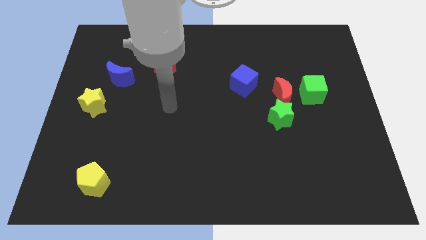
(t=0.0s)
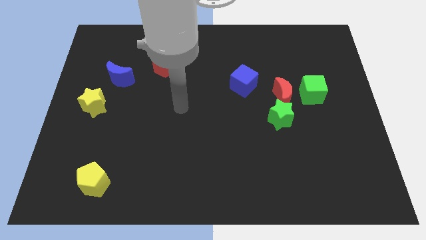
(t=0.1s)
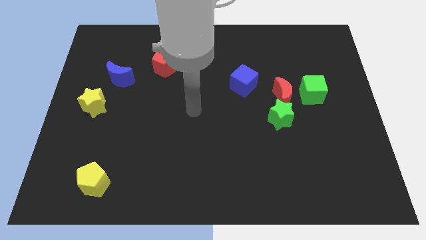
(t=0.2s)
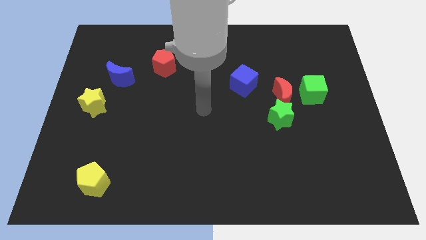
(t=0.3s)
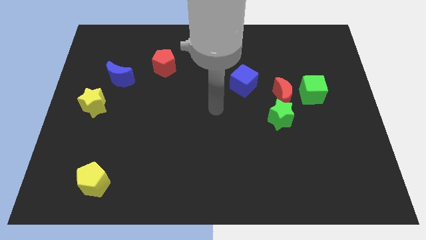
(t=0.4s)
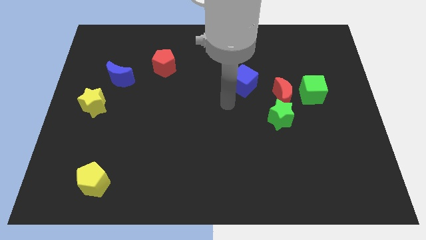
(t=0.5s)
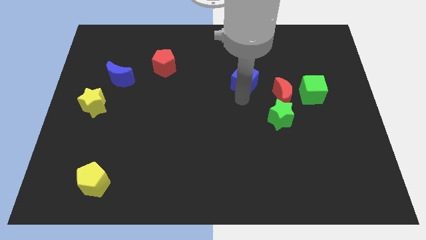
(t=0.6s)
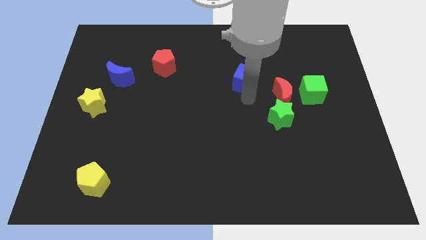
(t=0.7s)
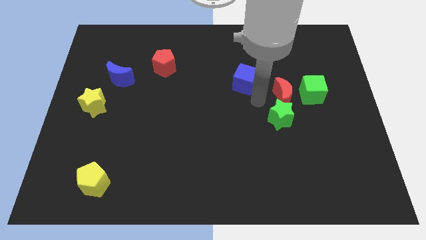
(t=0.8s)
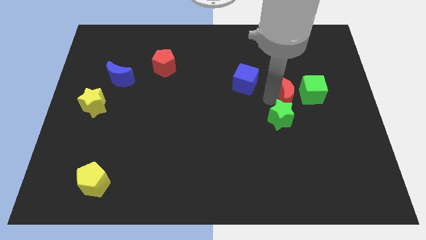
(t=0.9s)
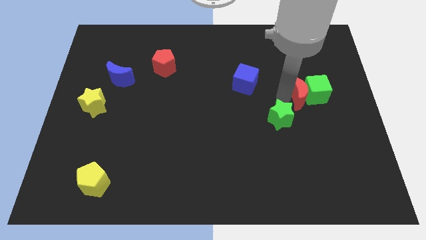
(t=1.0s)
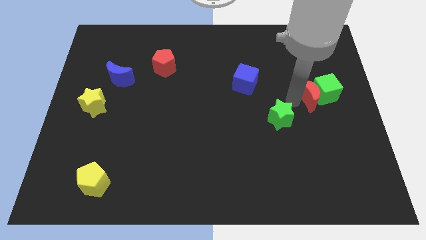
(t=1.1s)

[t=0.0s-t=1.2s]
separate the green star from the red moon

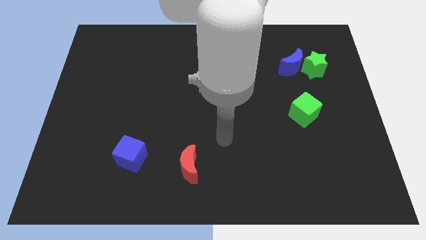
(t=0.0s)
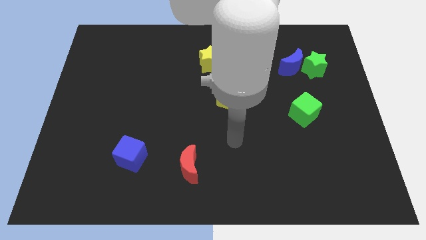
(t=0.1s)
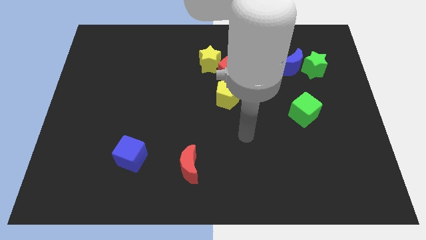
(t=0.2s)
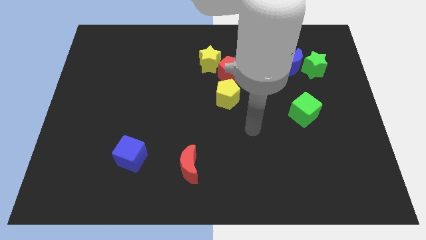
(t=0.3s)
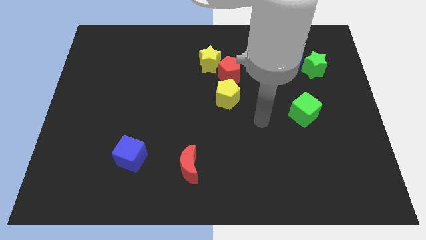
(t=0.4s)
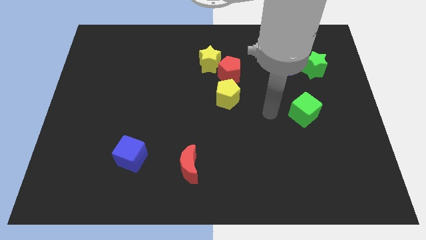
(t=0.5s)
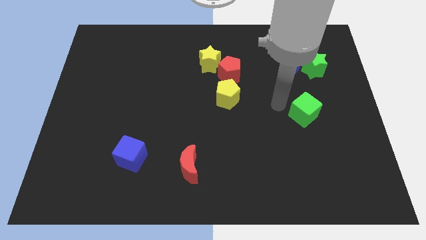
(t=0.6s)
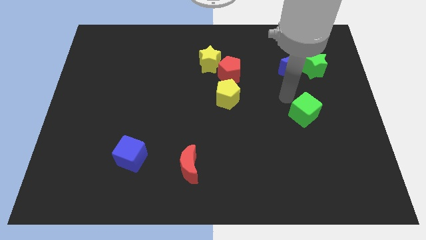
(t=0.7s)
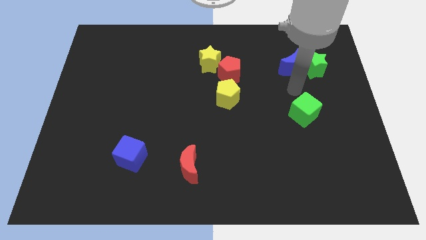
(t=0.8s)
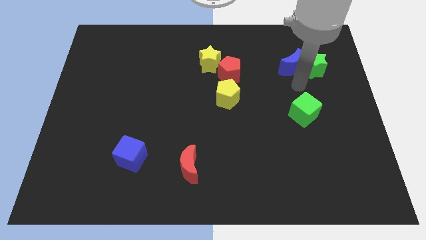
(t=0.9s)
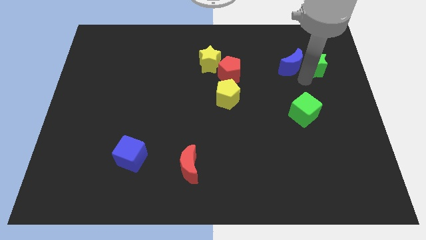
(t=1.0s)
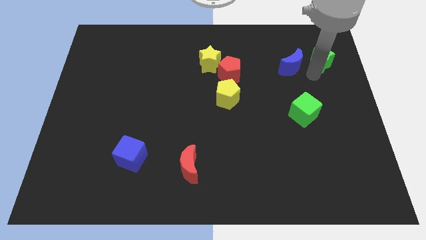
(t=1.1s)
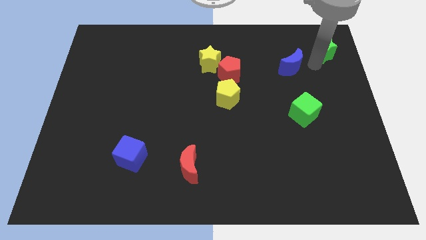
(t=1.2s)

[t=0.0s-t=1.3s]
separate the blue moon from the green star

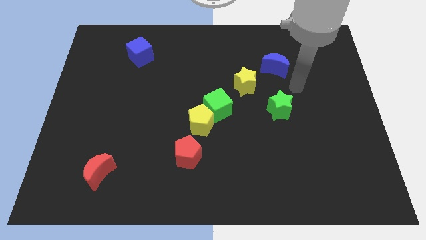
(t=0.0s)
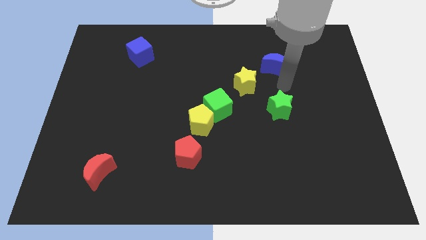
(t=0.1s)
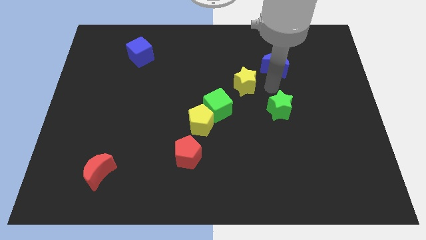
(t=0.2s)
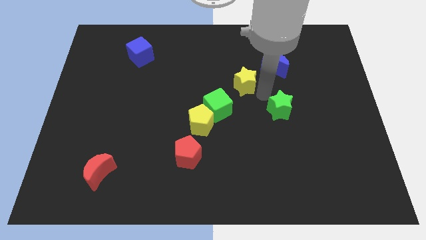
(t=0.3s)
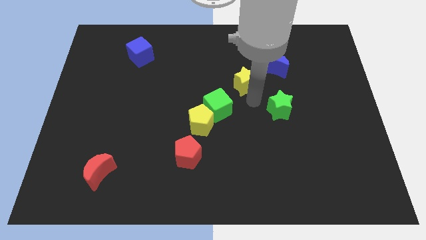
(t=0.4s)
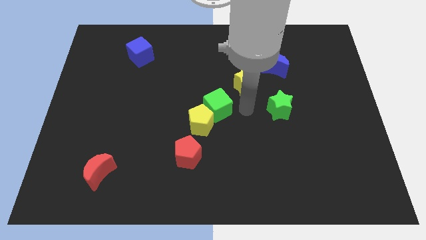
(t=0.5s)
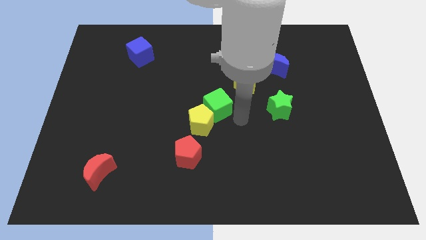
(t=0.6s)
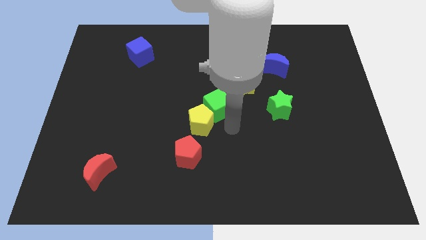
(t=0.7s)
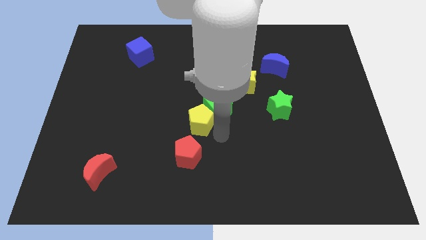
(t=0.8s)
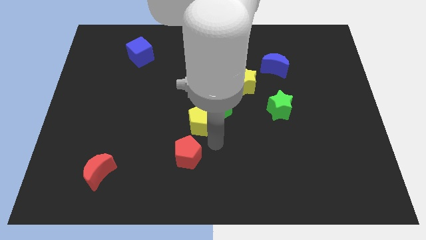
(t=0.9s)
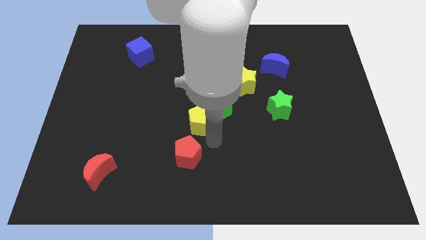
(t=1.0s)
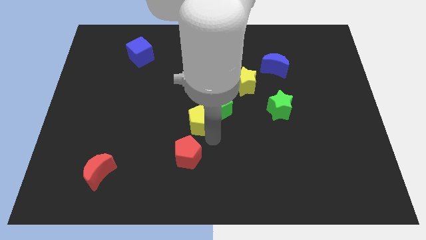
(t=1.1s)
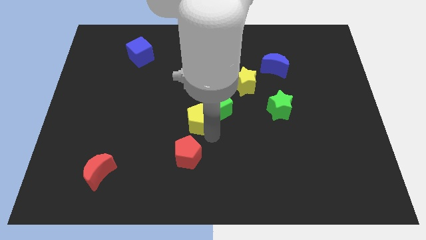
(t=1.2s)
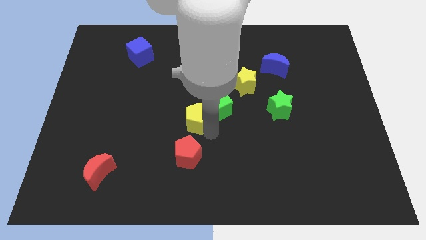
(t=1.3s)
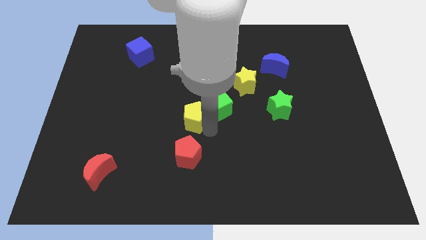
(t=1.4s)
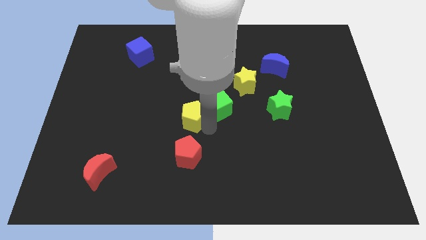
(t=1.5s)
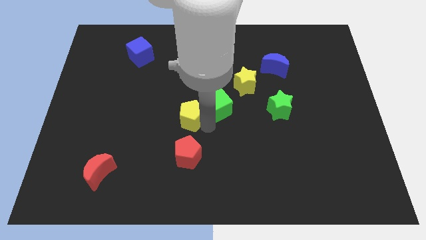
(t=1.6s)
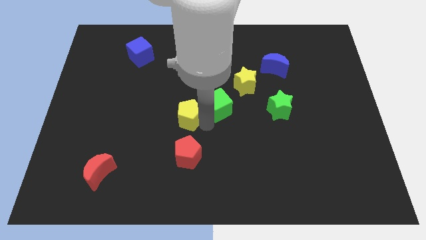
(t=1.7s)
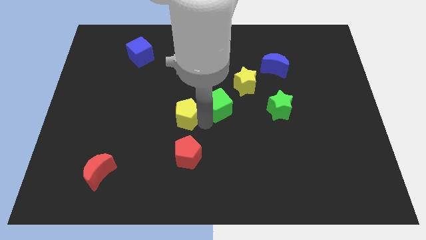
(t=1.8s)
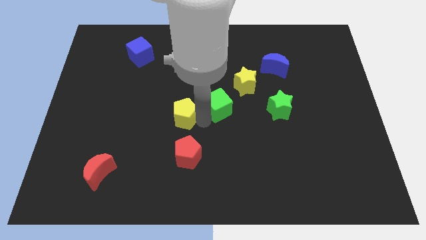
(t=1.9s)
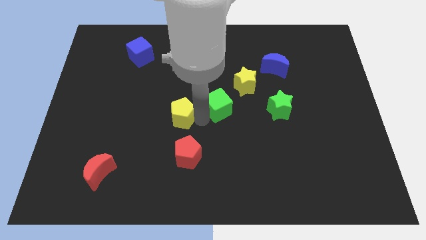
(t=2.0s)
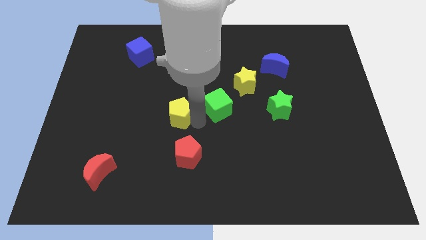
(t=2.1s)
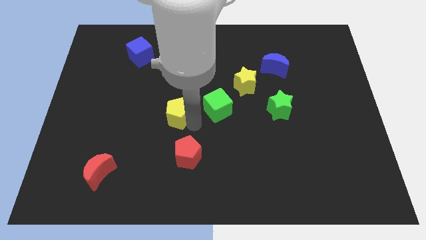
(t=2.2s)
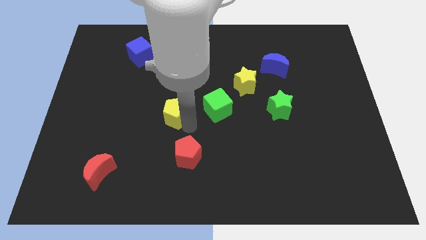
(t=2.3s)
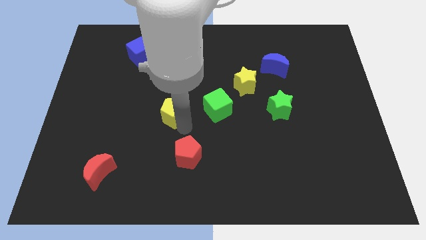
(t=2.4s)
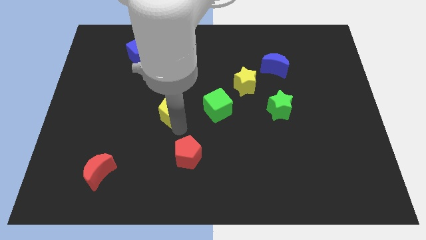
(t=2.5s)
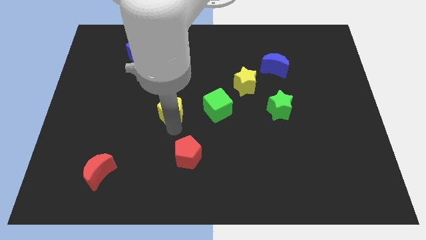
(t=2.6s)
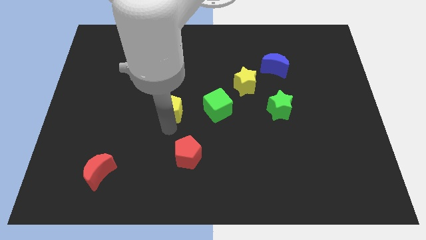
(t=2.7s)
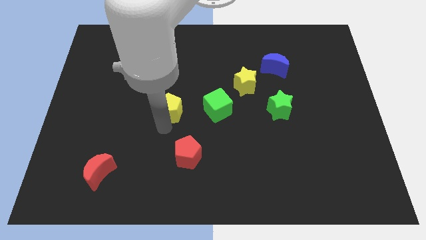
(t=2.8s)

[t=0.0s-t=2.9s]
separate the yellow pentagon from the green cube and red pentagon

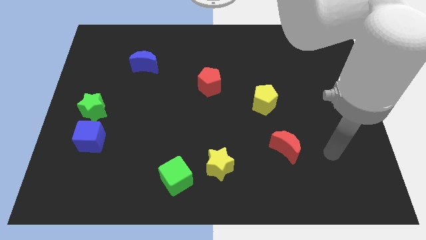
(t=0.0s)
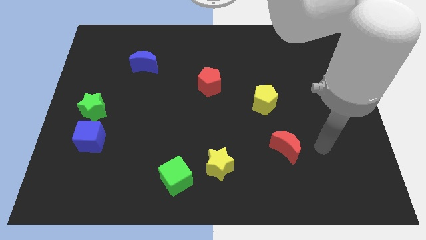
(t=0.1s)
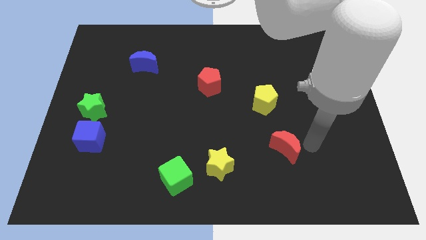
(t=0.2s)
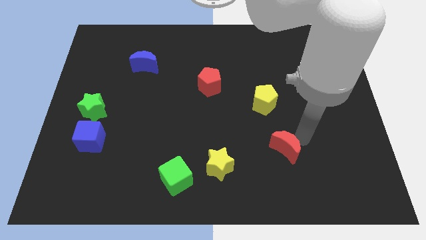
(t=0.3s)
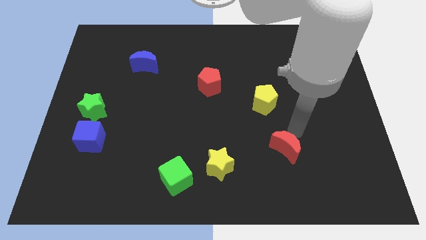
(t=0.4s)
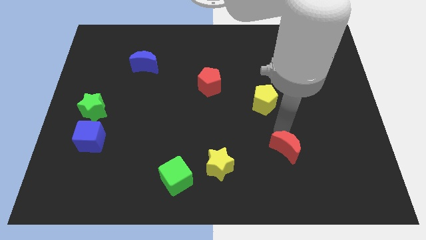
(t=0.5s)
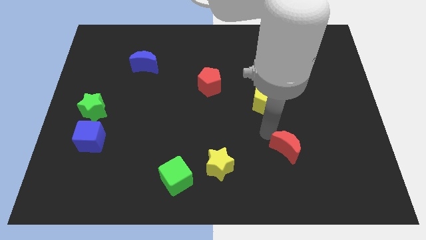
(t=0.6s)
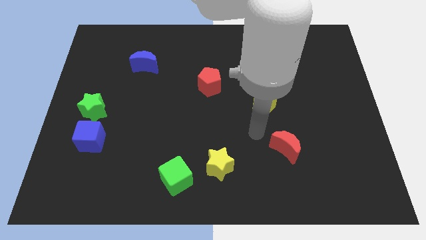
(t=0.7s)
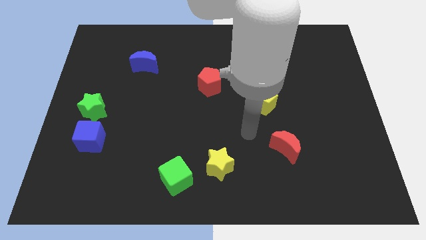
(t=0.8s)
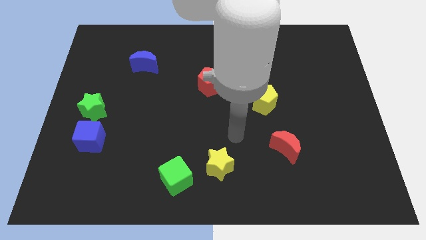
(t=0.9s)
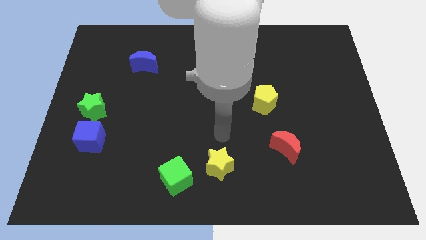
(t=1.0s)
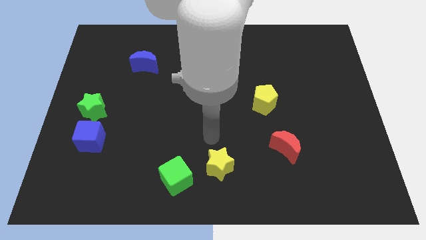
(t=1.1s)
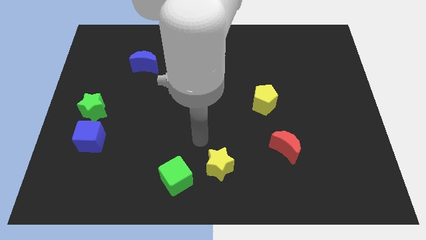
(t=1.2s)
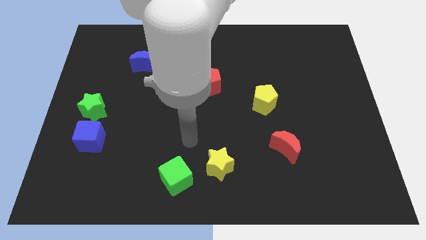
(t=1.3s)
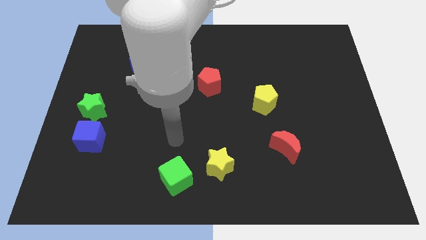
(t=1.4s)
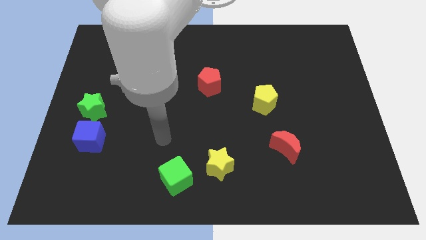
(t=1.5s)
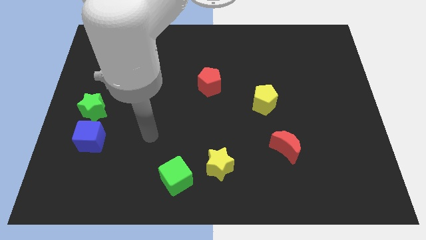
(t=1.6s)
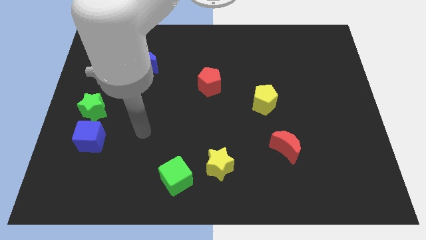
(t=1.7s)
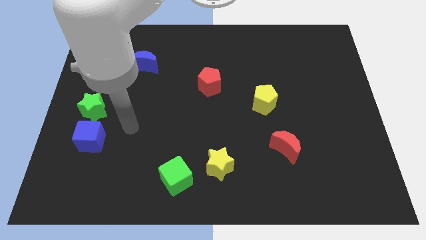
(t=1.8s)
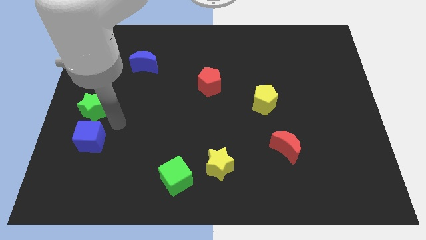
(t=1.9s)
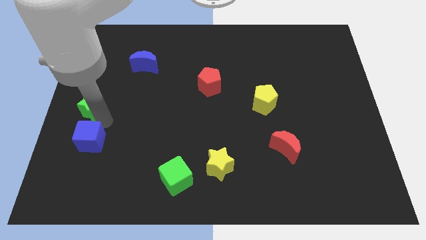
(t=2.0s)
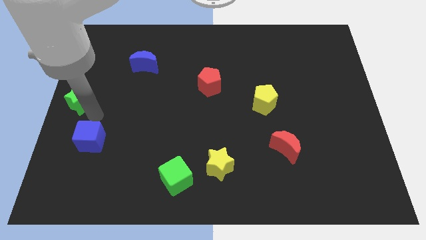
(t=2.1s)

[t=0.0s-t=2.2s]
pull the blue cube apart from the green star

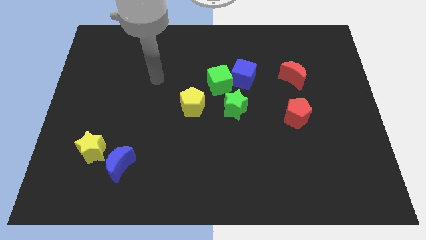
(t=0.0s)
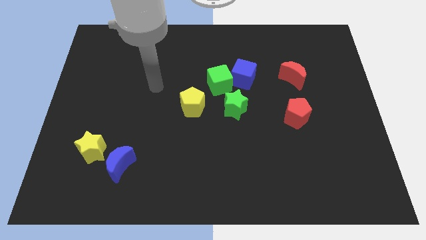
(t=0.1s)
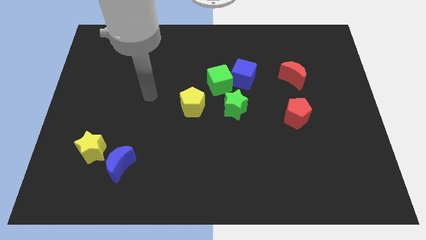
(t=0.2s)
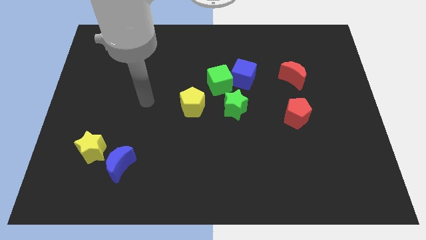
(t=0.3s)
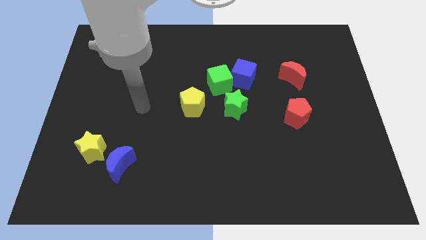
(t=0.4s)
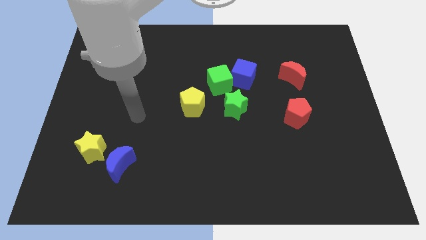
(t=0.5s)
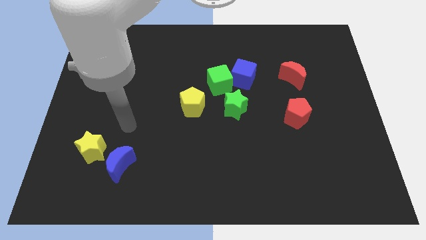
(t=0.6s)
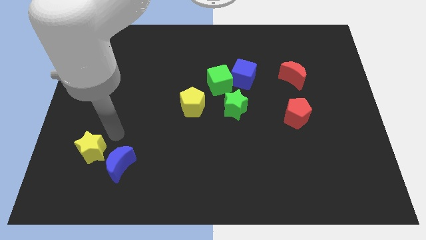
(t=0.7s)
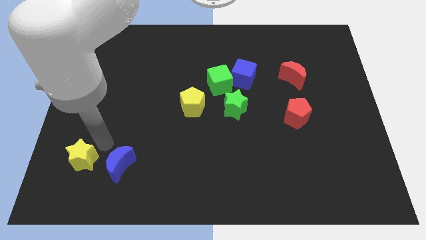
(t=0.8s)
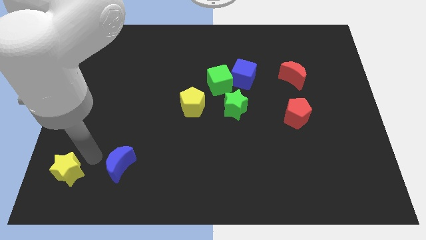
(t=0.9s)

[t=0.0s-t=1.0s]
pull the blue moon apart from the yellow star

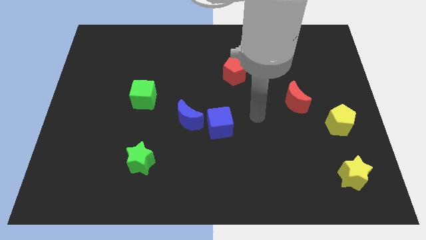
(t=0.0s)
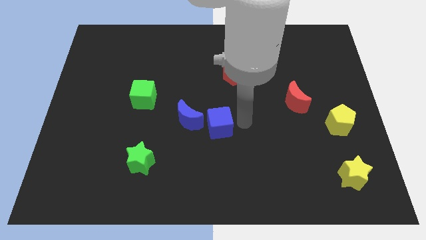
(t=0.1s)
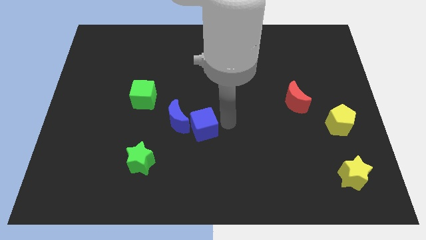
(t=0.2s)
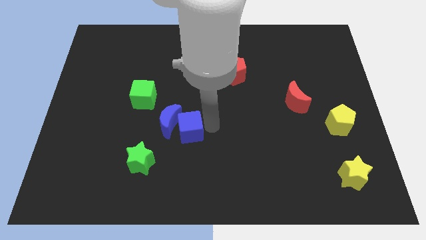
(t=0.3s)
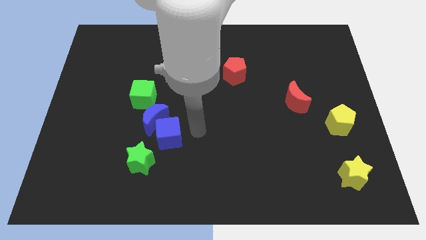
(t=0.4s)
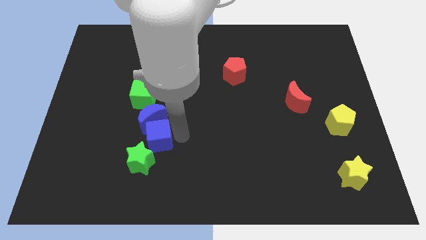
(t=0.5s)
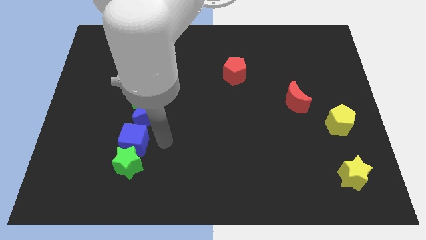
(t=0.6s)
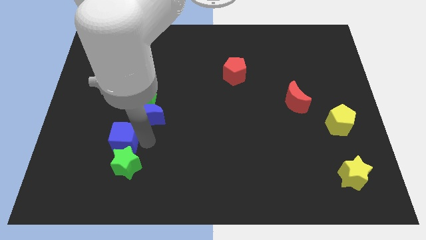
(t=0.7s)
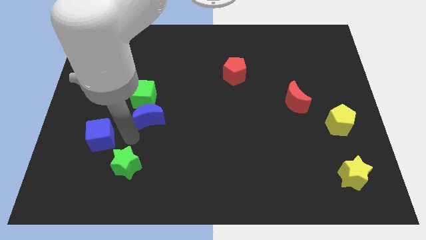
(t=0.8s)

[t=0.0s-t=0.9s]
separate the blue moon from the blue cube
